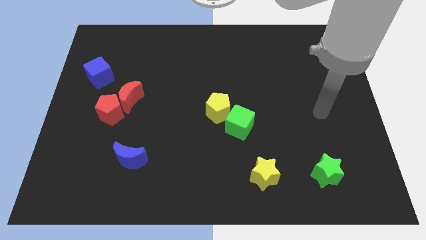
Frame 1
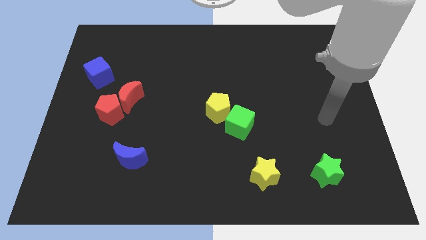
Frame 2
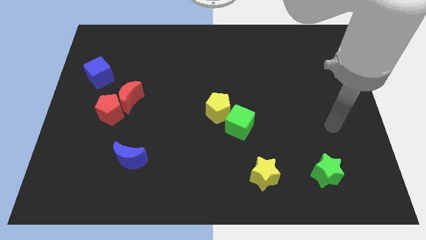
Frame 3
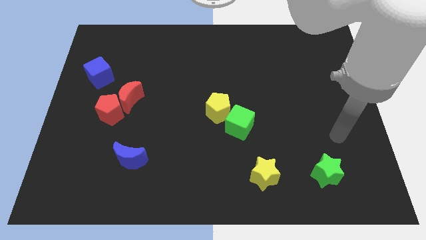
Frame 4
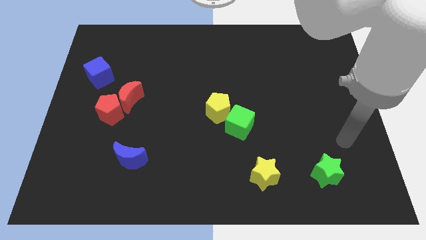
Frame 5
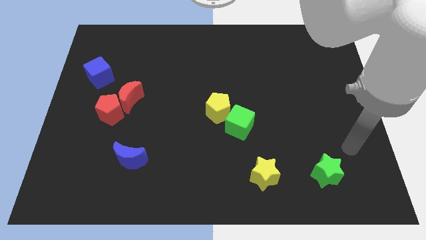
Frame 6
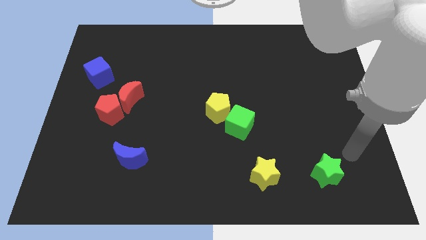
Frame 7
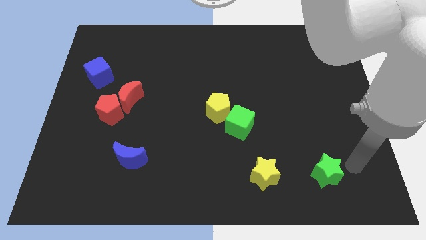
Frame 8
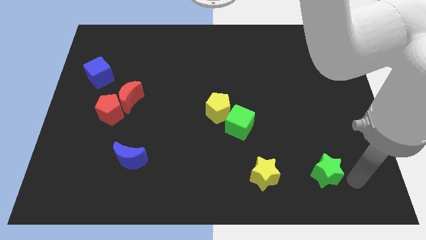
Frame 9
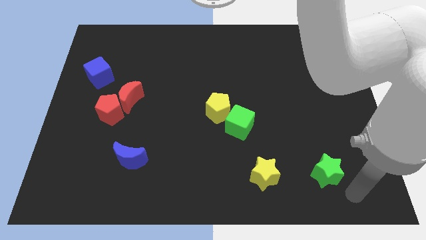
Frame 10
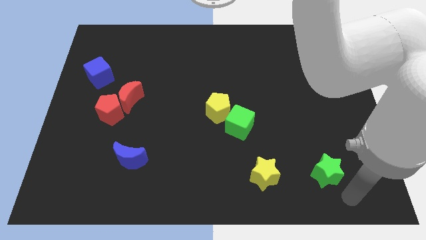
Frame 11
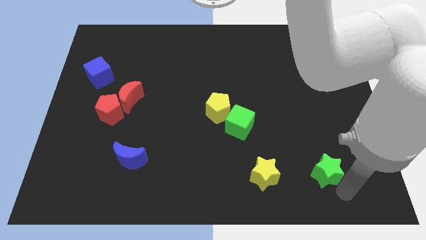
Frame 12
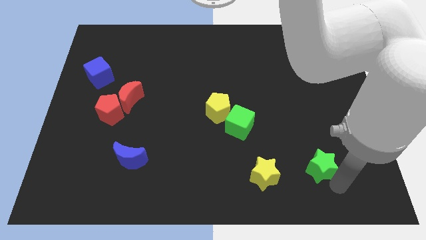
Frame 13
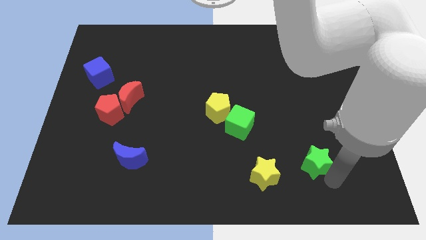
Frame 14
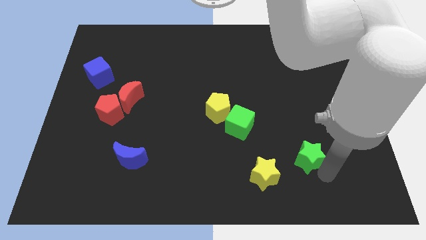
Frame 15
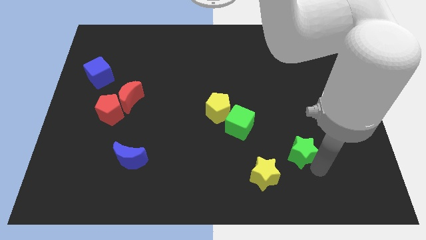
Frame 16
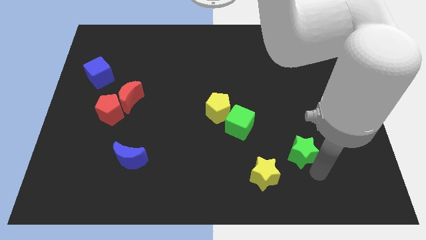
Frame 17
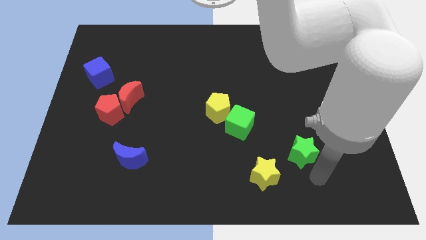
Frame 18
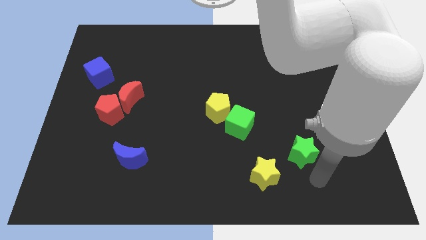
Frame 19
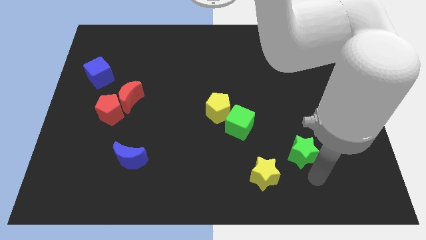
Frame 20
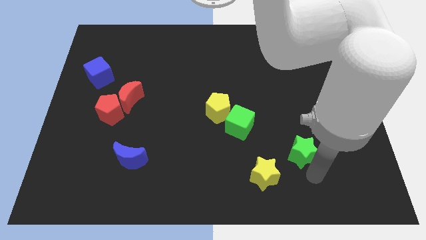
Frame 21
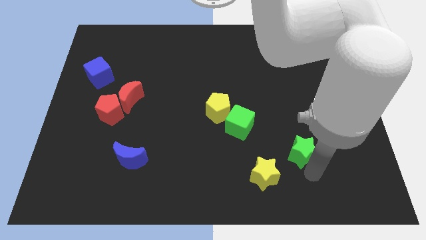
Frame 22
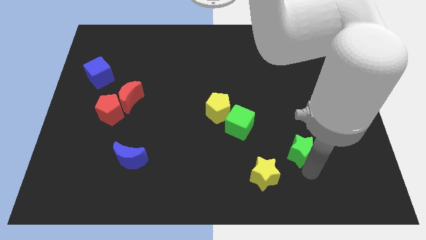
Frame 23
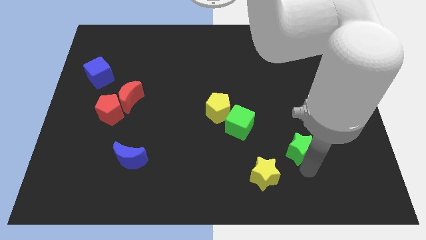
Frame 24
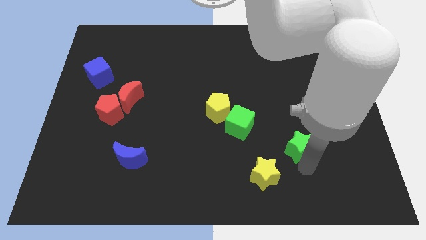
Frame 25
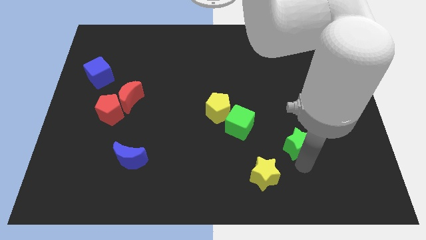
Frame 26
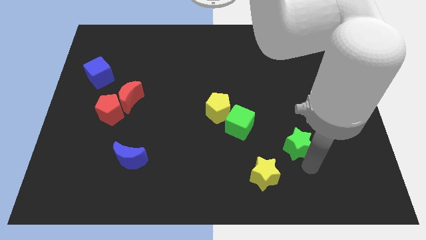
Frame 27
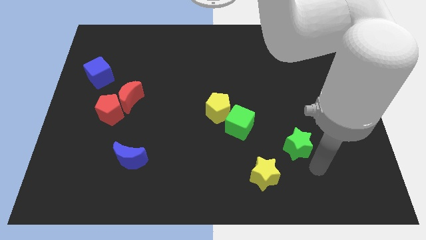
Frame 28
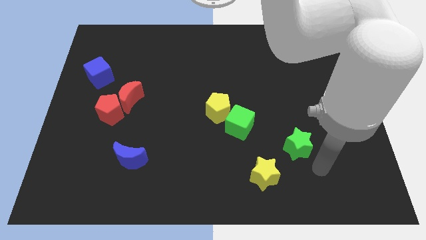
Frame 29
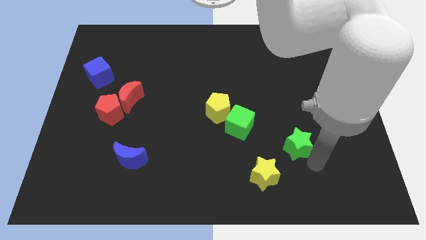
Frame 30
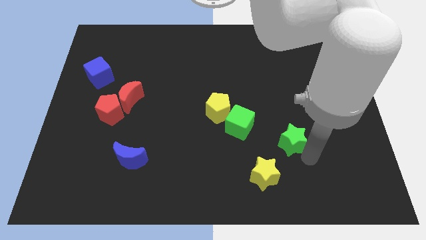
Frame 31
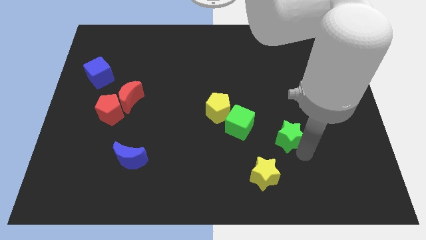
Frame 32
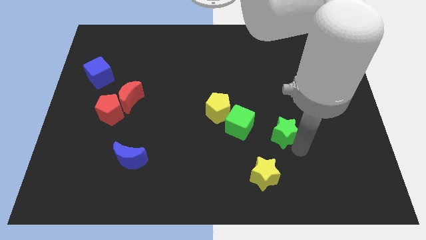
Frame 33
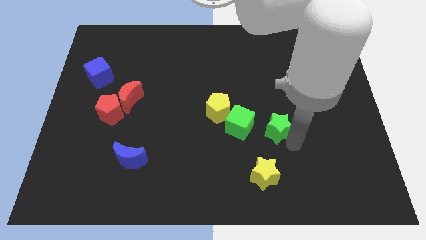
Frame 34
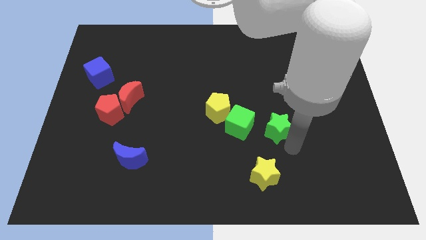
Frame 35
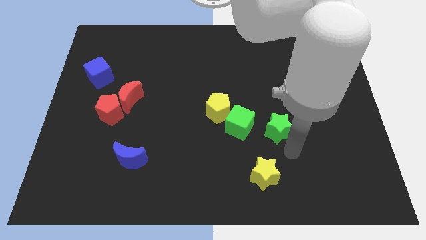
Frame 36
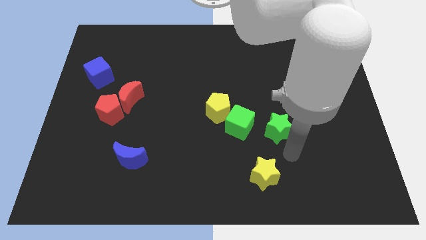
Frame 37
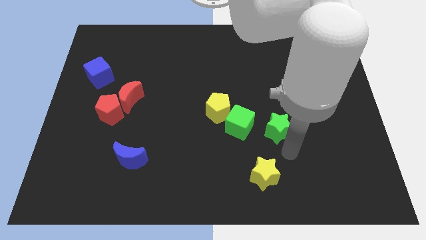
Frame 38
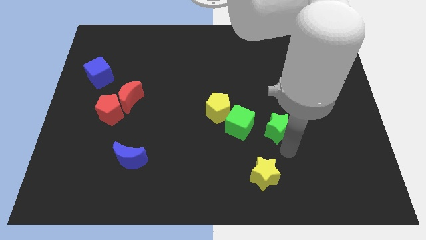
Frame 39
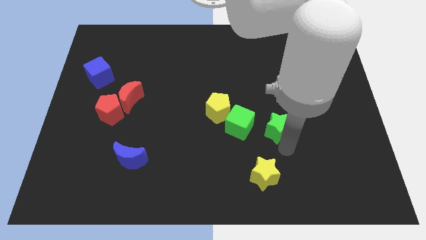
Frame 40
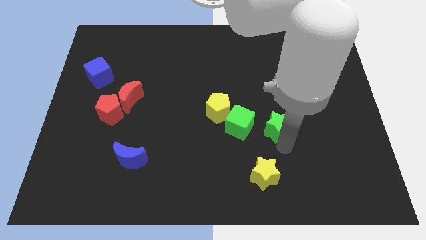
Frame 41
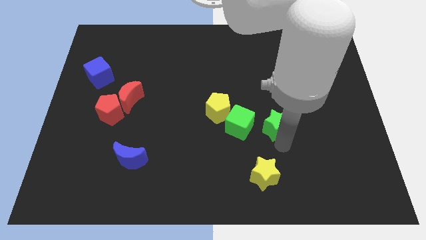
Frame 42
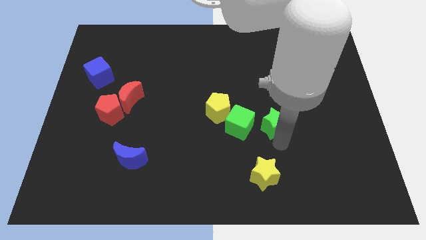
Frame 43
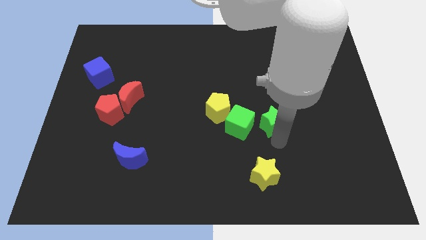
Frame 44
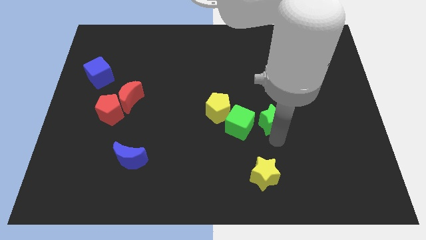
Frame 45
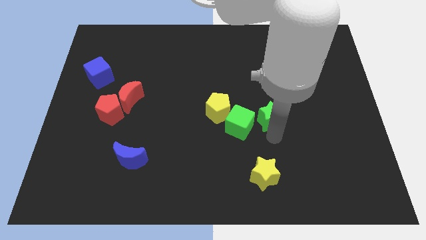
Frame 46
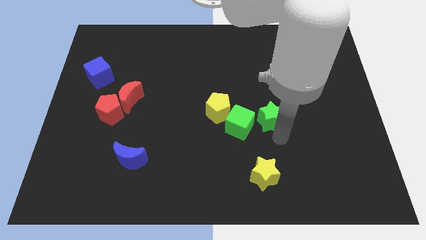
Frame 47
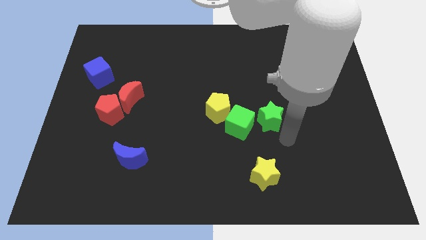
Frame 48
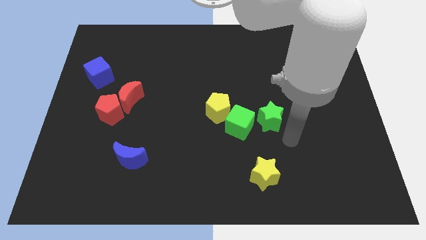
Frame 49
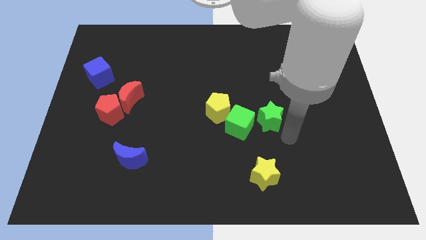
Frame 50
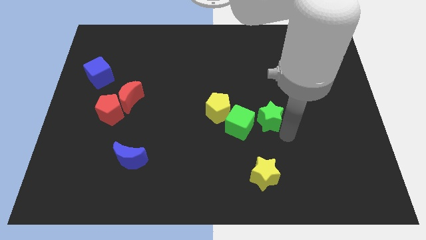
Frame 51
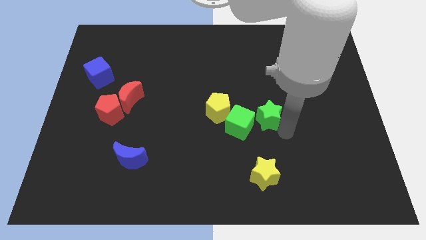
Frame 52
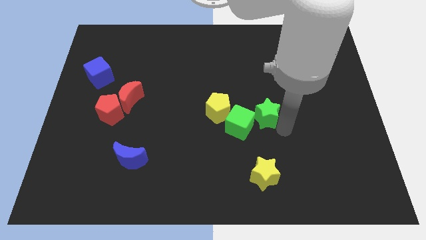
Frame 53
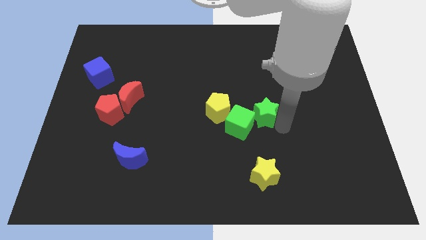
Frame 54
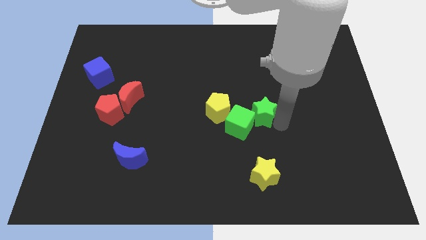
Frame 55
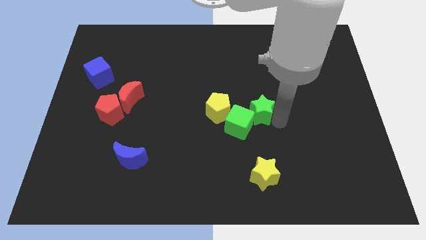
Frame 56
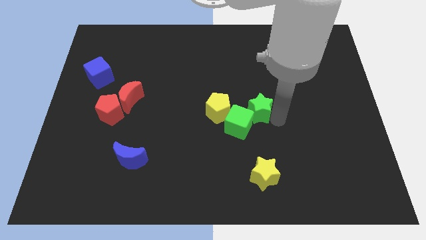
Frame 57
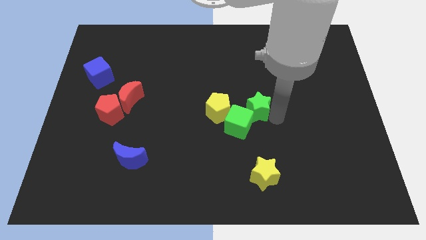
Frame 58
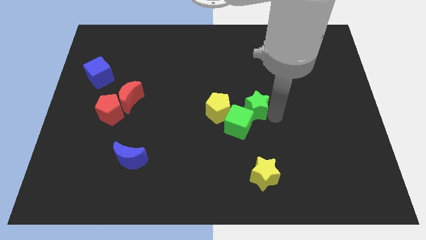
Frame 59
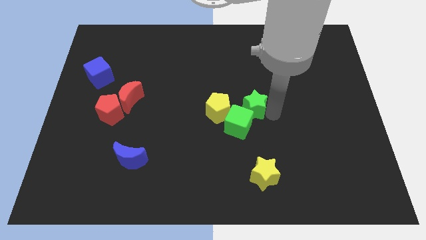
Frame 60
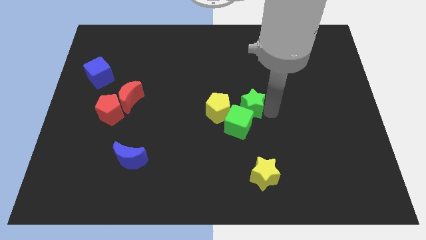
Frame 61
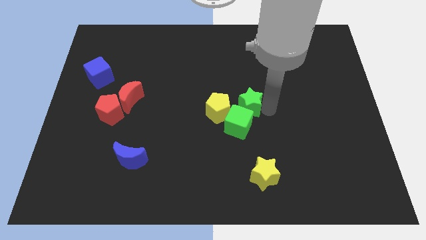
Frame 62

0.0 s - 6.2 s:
slide the green star diagonally up and to the right of the yellow pentagon

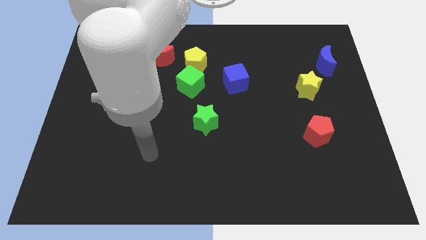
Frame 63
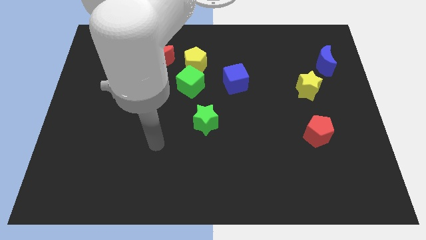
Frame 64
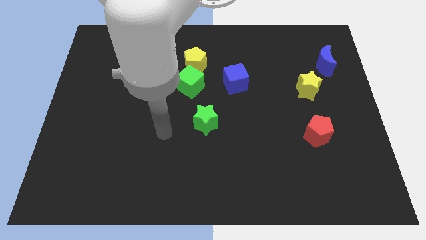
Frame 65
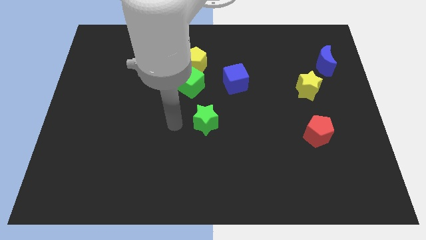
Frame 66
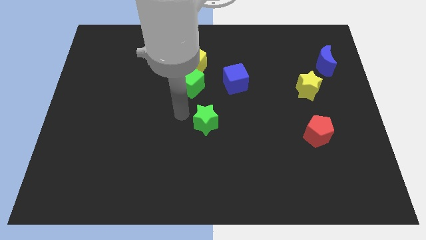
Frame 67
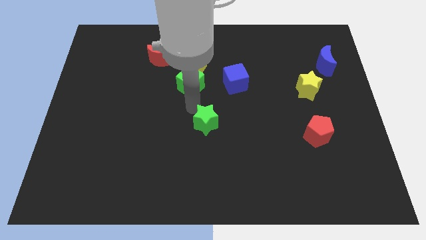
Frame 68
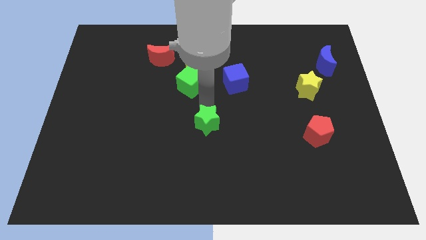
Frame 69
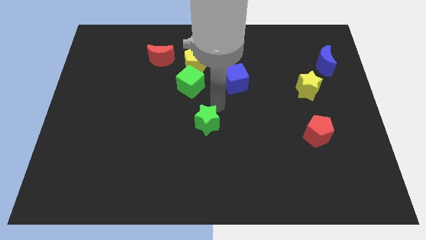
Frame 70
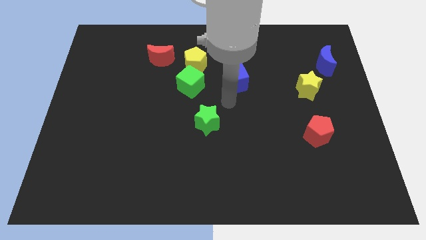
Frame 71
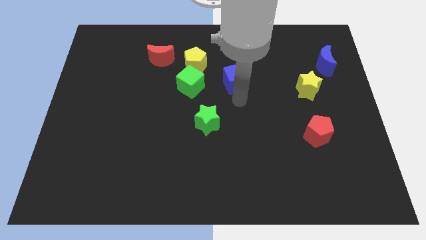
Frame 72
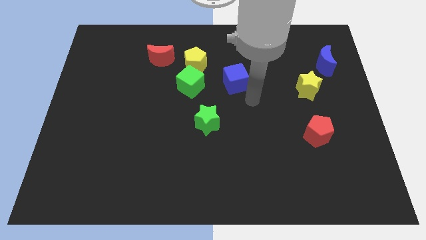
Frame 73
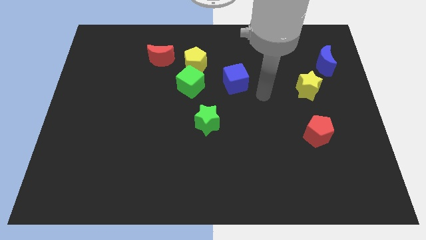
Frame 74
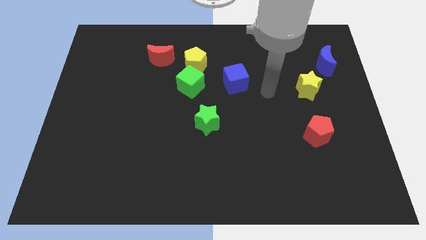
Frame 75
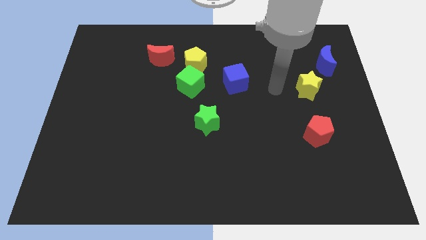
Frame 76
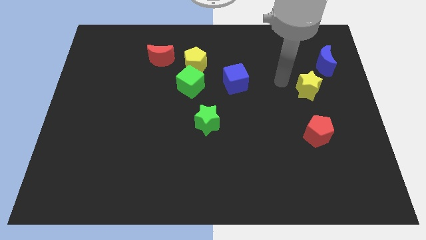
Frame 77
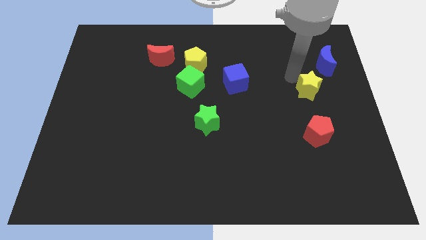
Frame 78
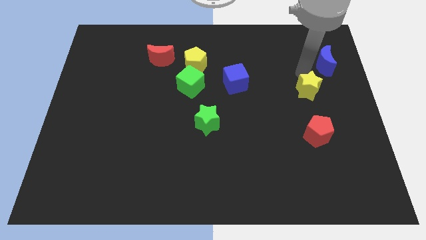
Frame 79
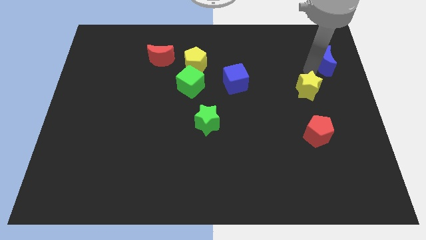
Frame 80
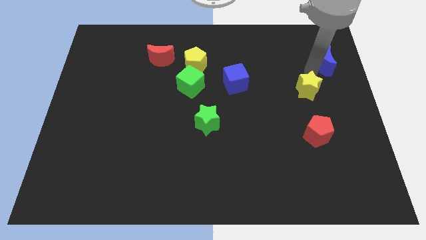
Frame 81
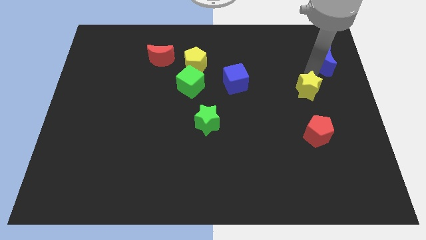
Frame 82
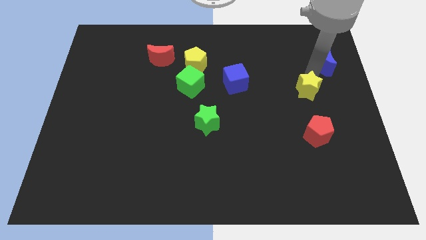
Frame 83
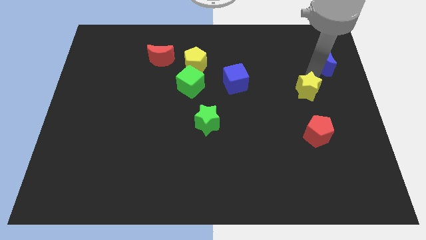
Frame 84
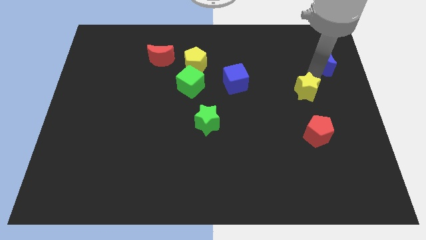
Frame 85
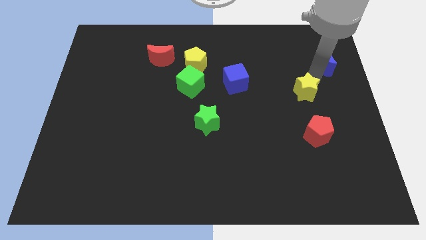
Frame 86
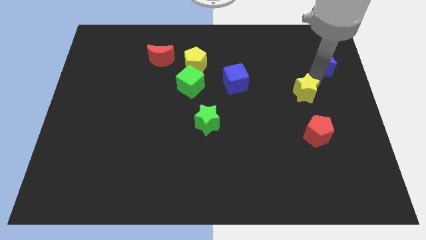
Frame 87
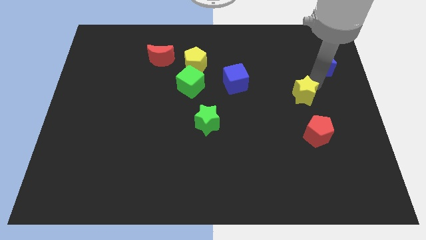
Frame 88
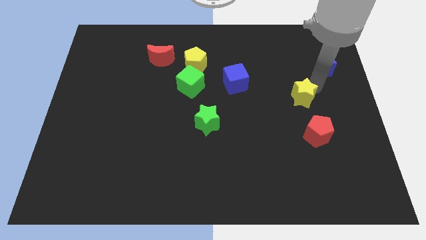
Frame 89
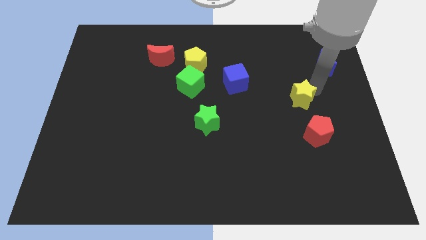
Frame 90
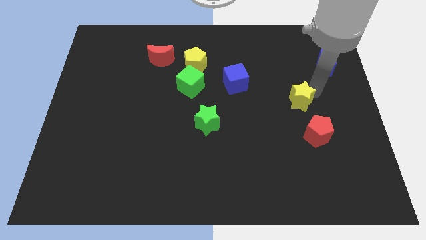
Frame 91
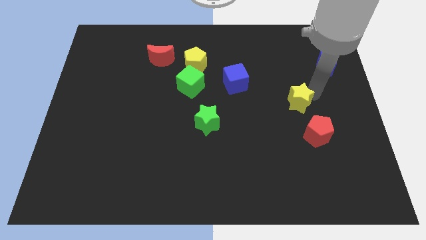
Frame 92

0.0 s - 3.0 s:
move the yellow star to the top left of the red pentagon
